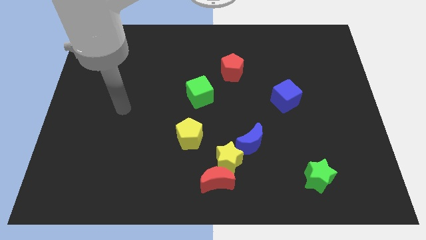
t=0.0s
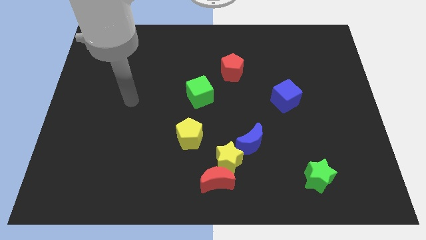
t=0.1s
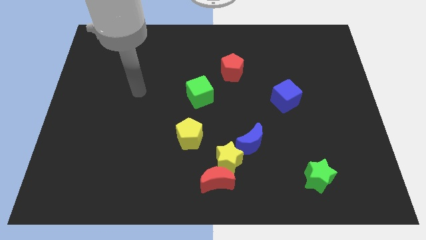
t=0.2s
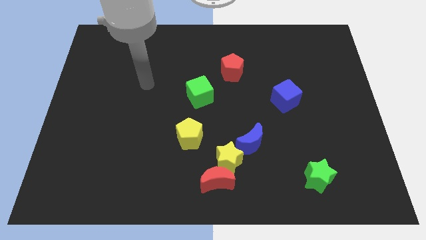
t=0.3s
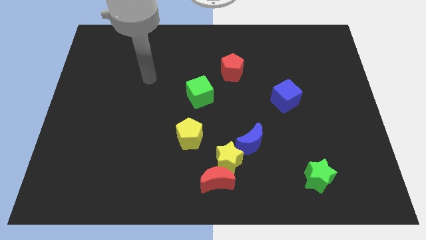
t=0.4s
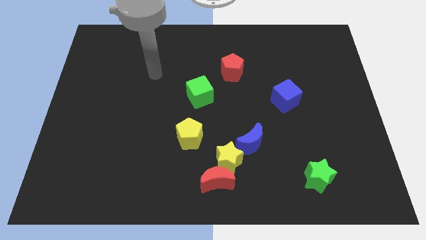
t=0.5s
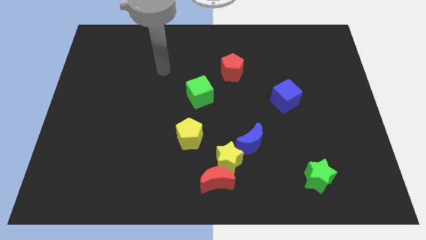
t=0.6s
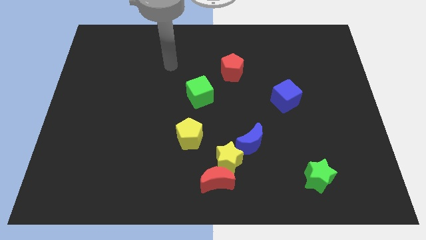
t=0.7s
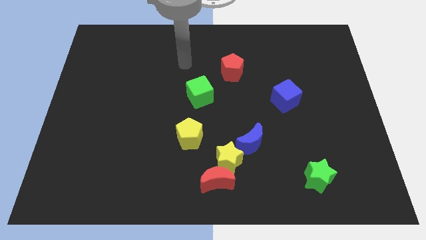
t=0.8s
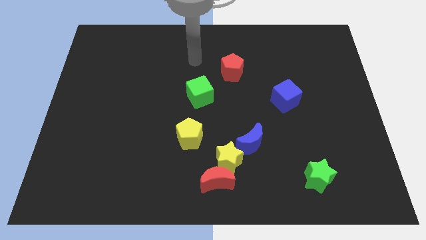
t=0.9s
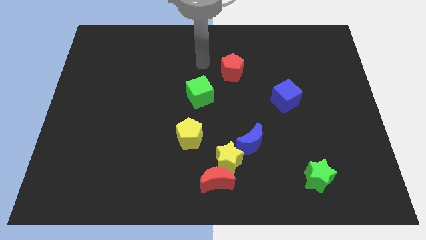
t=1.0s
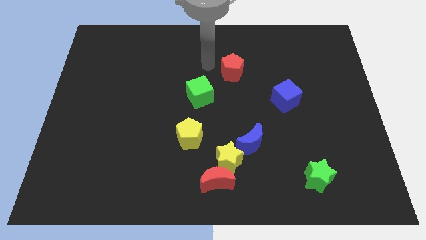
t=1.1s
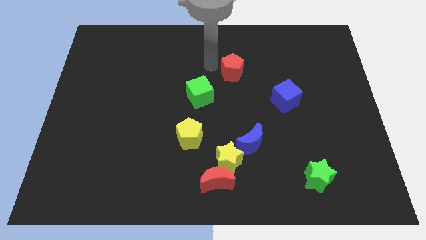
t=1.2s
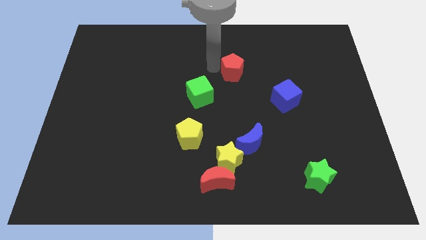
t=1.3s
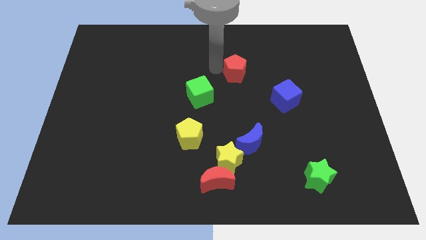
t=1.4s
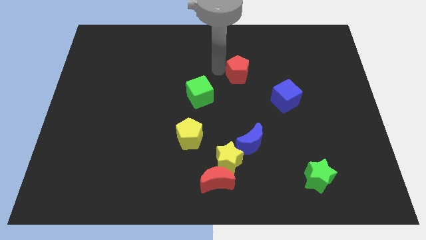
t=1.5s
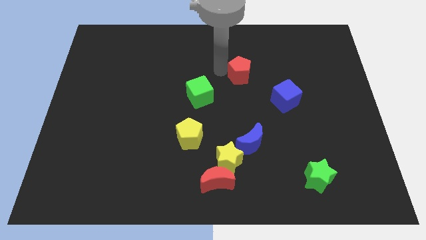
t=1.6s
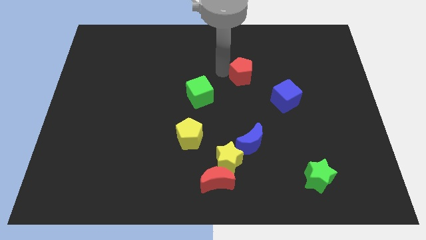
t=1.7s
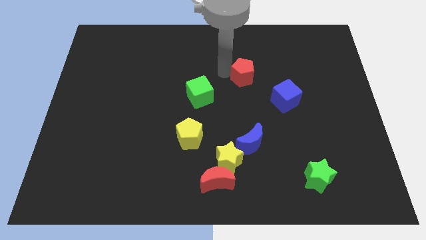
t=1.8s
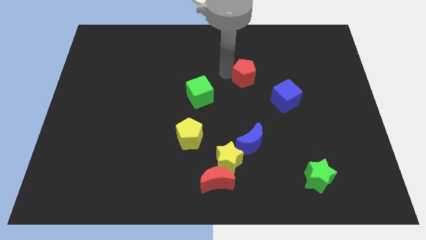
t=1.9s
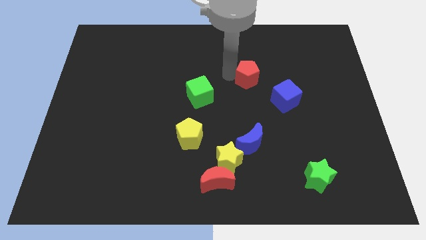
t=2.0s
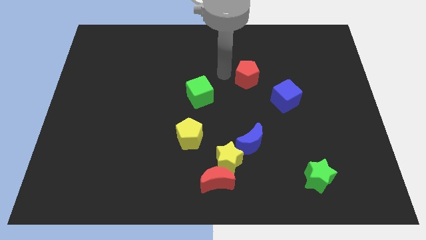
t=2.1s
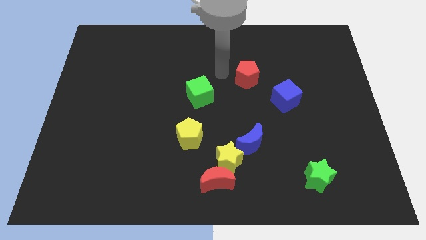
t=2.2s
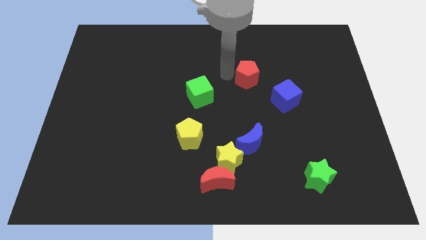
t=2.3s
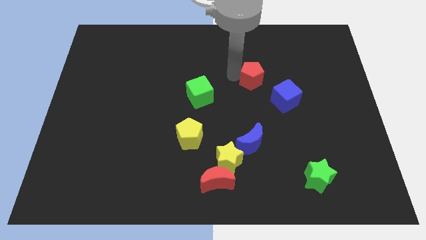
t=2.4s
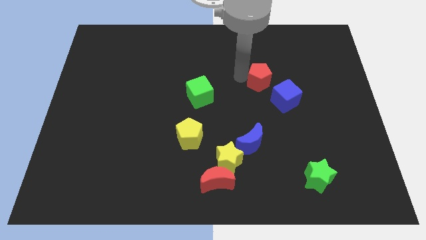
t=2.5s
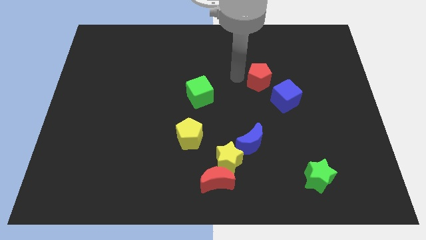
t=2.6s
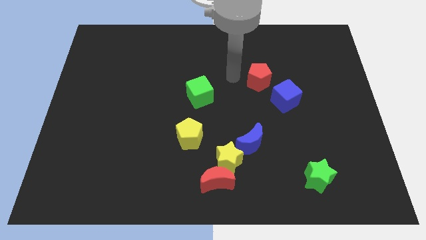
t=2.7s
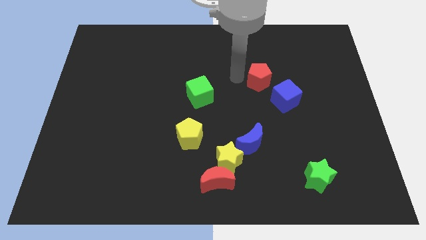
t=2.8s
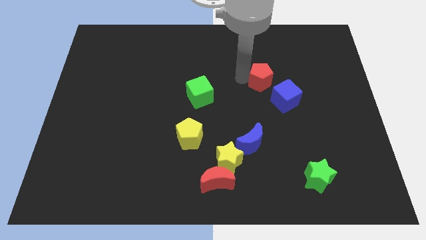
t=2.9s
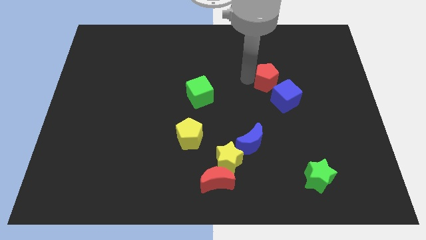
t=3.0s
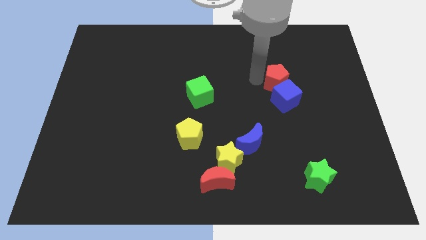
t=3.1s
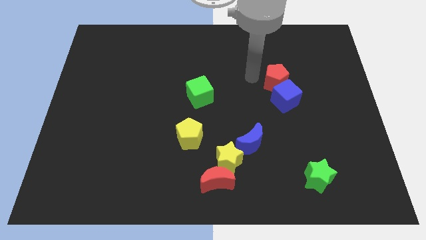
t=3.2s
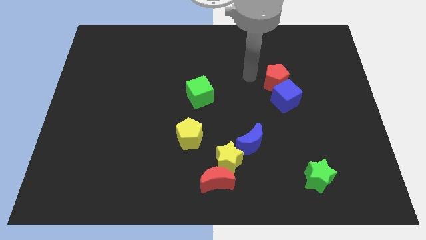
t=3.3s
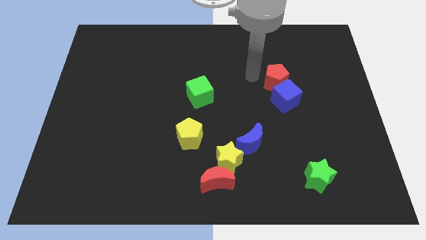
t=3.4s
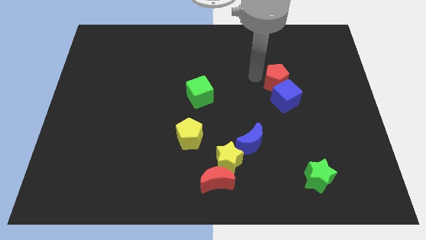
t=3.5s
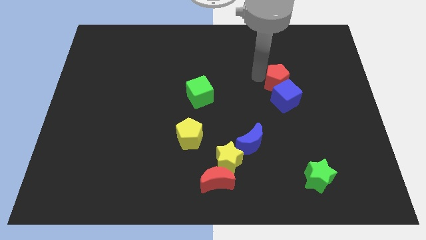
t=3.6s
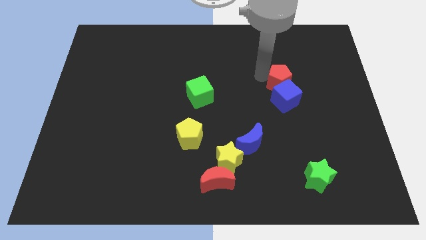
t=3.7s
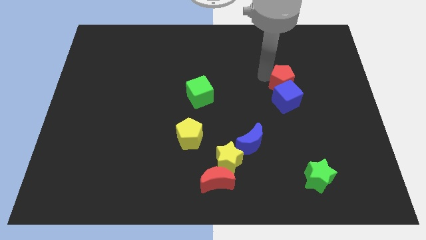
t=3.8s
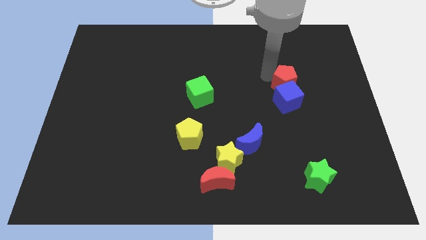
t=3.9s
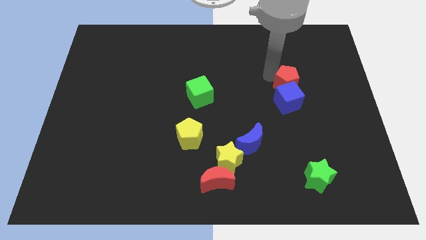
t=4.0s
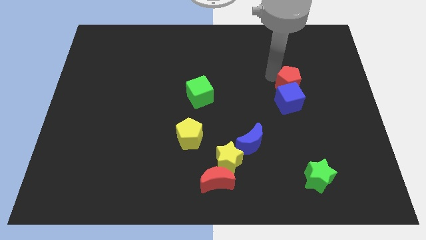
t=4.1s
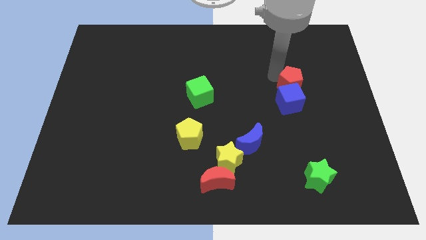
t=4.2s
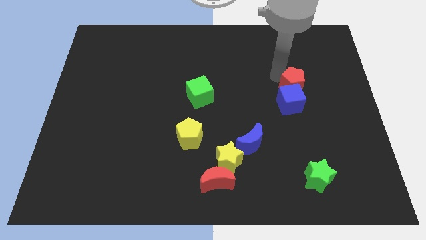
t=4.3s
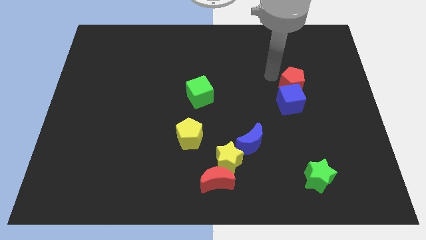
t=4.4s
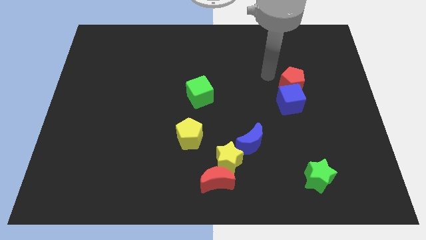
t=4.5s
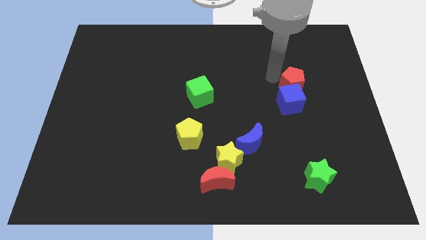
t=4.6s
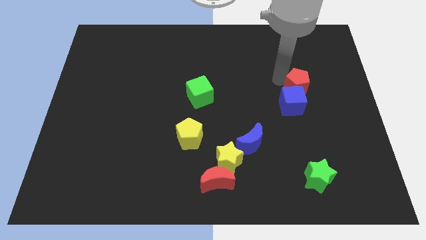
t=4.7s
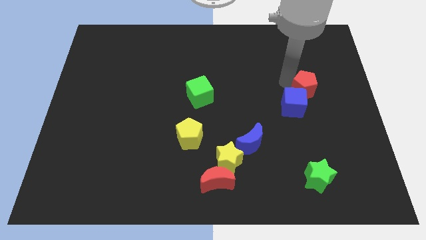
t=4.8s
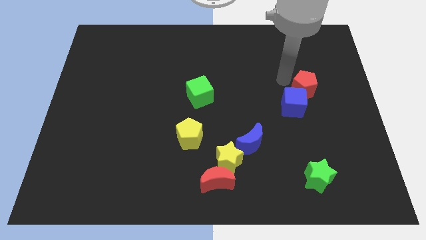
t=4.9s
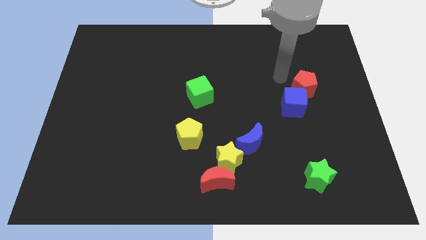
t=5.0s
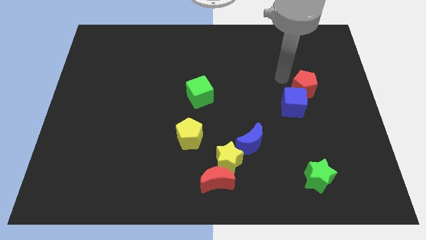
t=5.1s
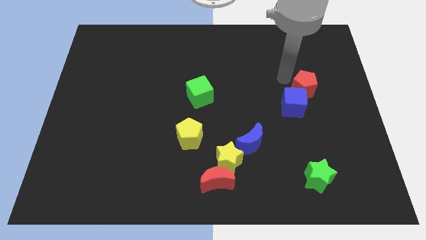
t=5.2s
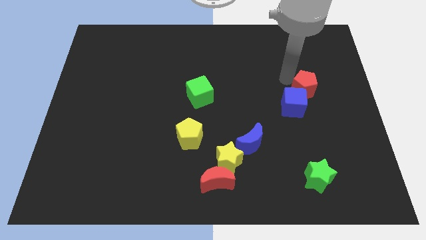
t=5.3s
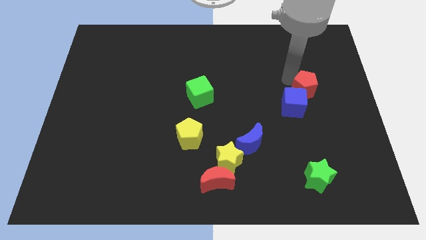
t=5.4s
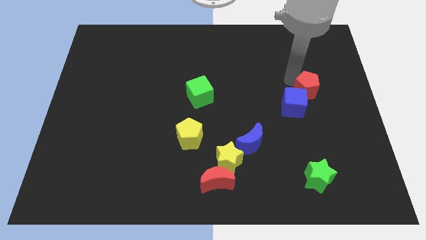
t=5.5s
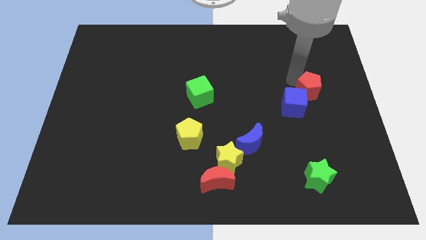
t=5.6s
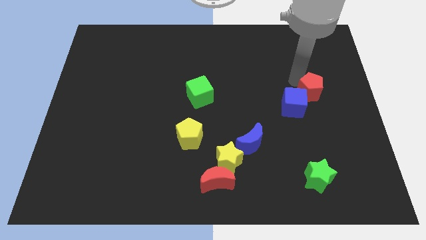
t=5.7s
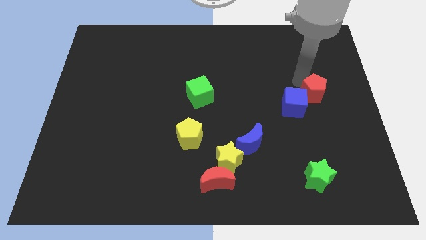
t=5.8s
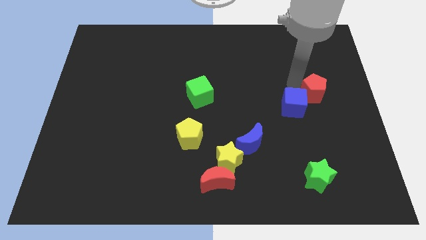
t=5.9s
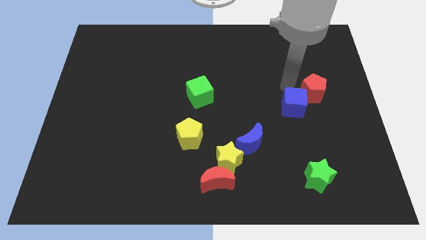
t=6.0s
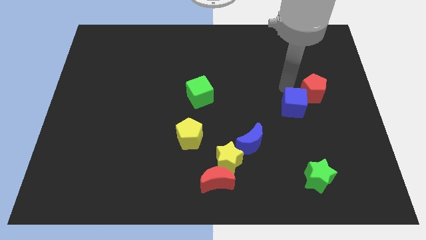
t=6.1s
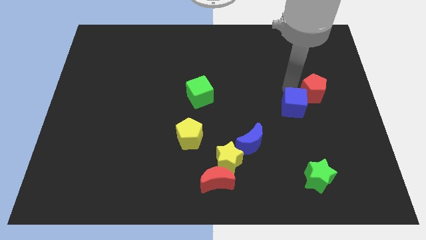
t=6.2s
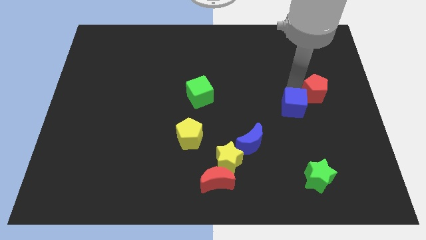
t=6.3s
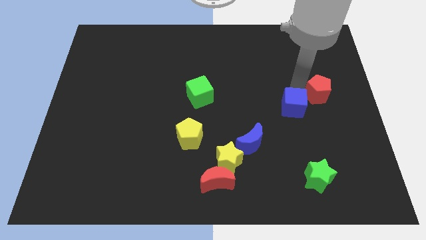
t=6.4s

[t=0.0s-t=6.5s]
put the red pentagon to the right side of the board
